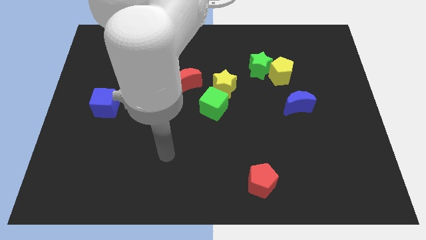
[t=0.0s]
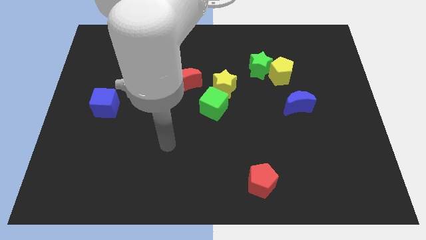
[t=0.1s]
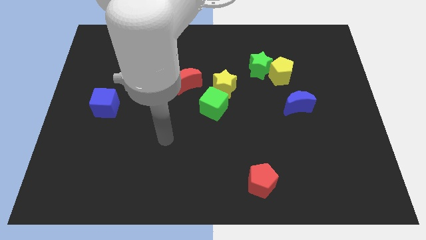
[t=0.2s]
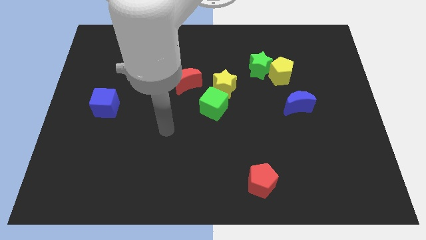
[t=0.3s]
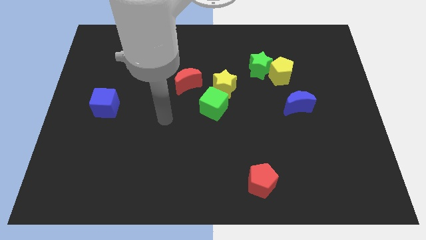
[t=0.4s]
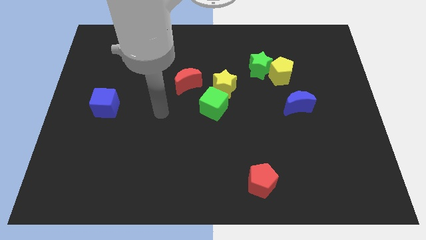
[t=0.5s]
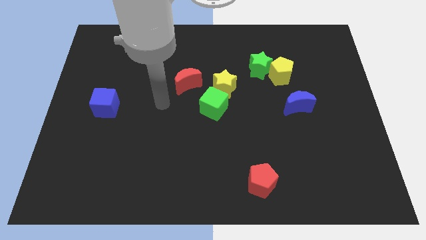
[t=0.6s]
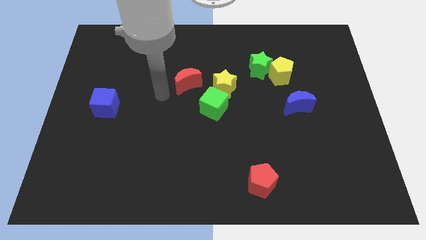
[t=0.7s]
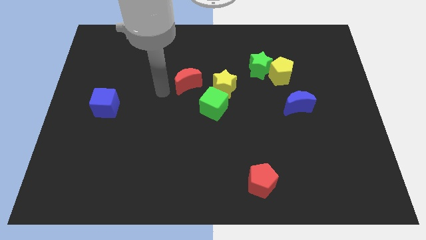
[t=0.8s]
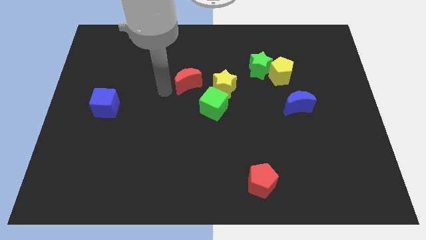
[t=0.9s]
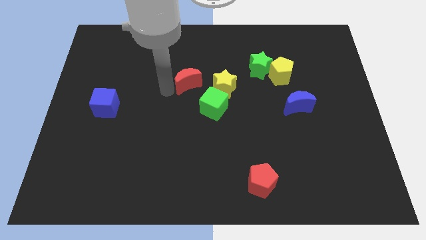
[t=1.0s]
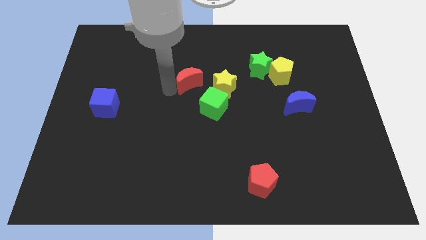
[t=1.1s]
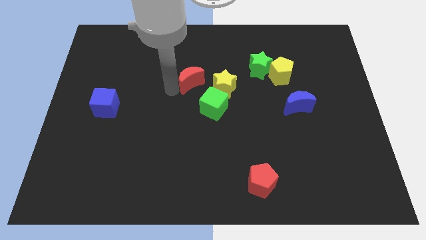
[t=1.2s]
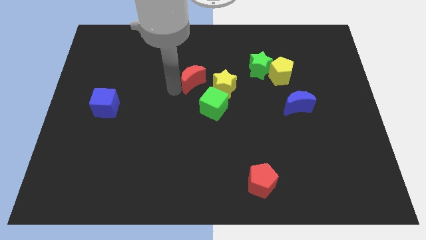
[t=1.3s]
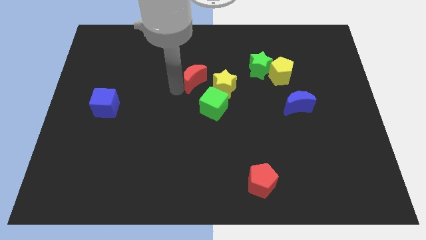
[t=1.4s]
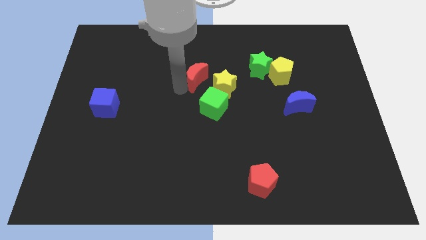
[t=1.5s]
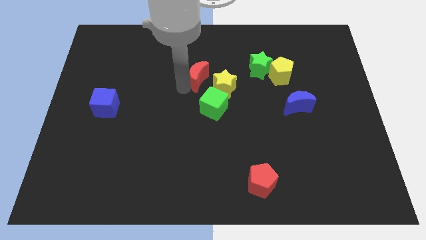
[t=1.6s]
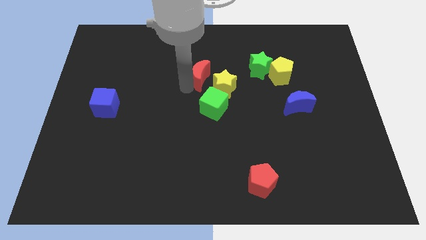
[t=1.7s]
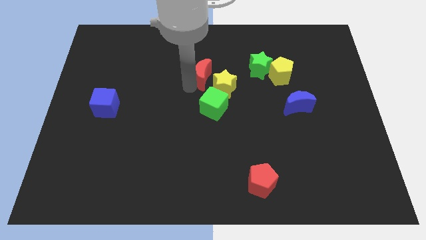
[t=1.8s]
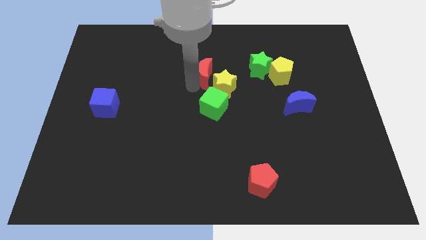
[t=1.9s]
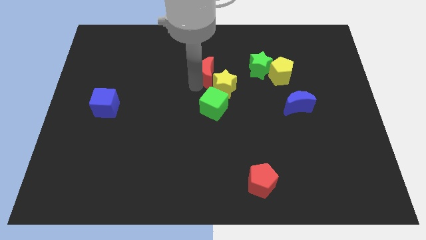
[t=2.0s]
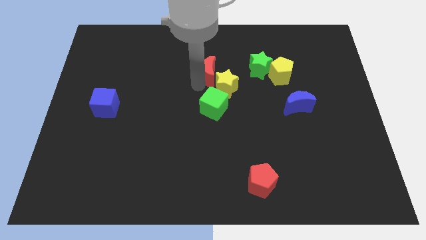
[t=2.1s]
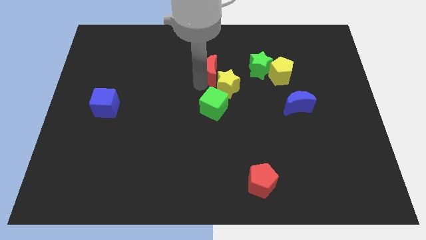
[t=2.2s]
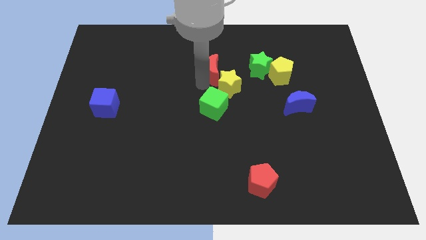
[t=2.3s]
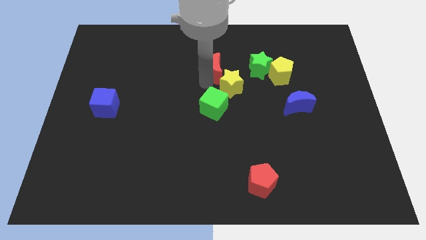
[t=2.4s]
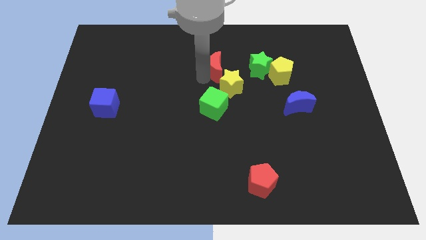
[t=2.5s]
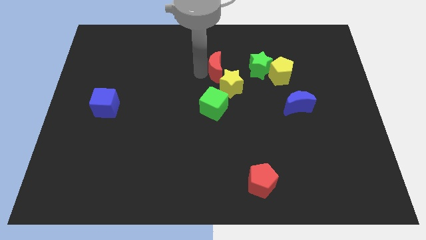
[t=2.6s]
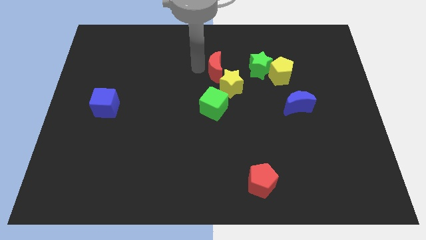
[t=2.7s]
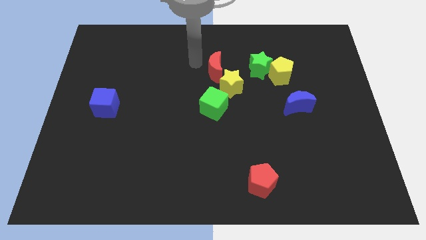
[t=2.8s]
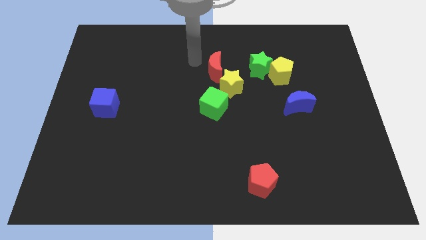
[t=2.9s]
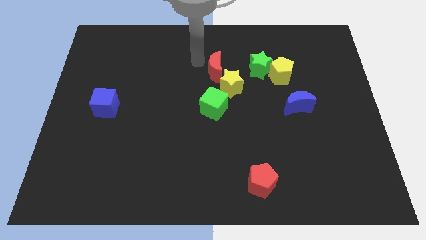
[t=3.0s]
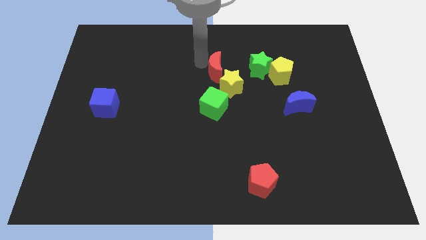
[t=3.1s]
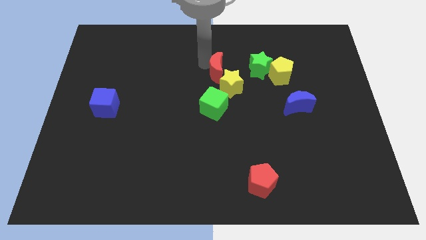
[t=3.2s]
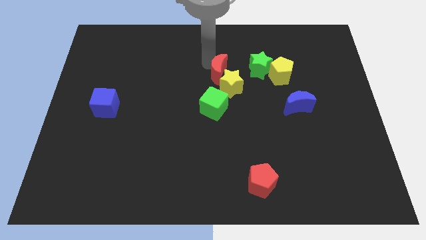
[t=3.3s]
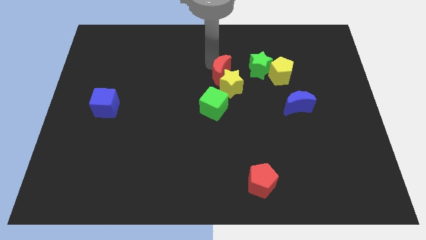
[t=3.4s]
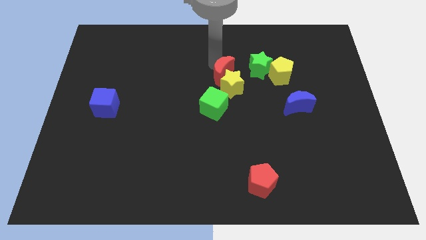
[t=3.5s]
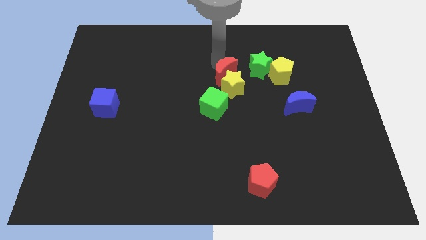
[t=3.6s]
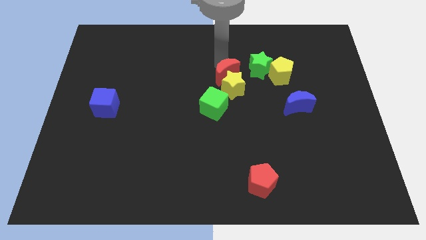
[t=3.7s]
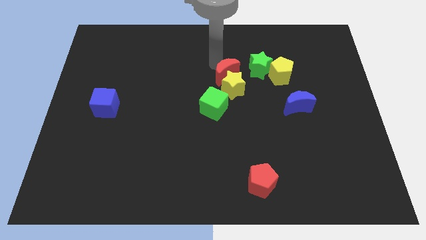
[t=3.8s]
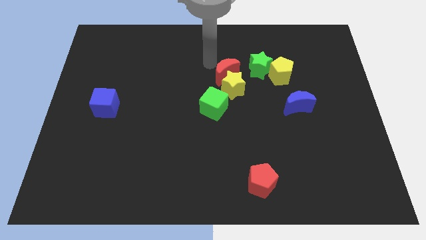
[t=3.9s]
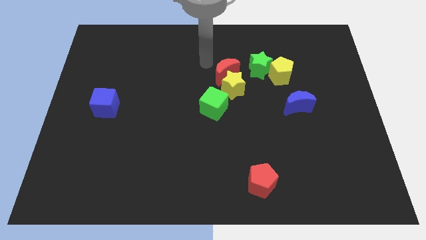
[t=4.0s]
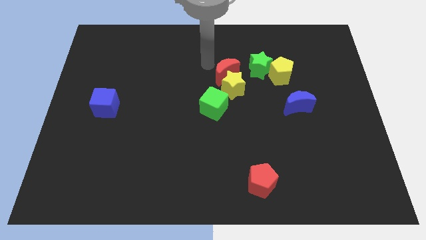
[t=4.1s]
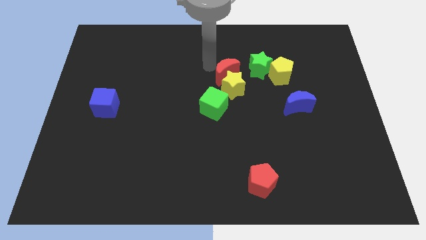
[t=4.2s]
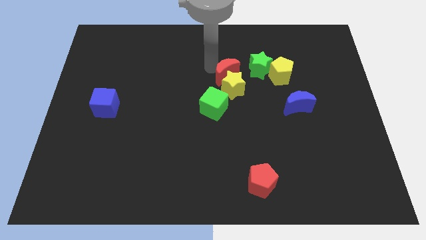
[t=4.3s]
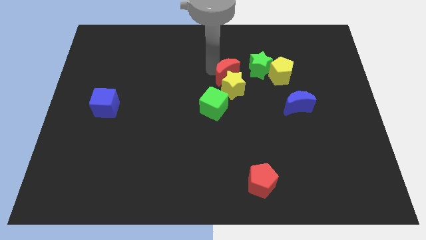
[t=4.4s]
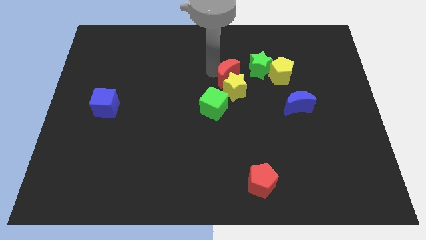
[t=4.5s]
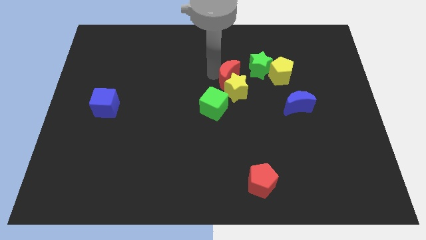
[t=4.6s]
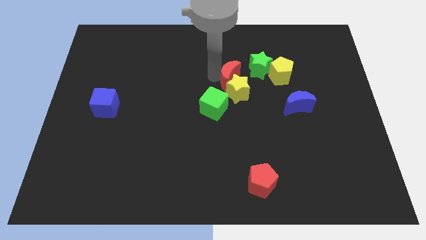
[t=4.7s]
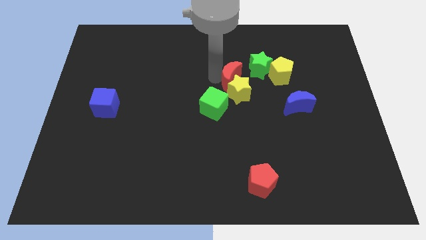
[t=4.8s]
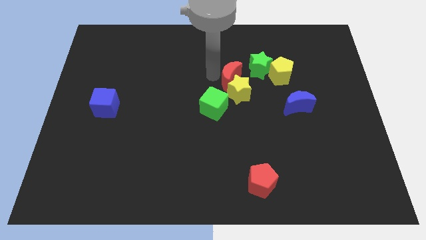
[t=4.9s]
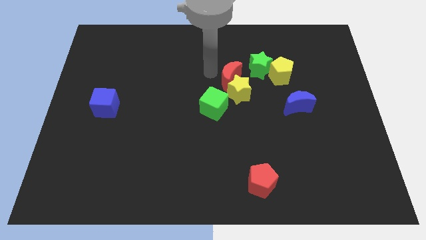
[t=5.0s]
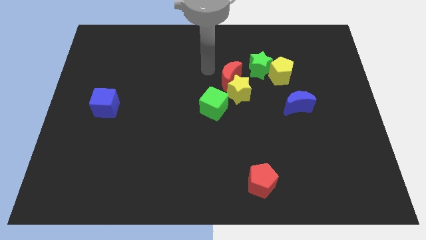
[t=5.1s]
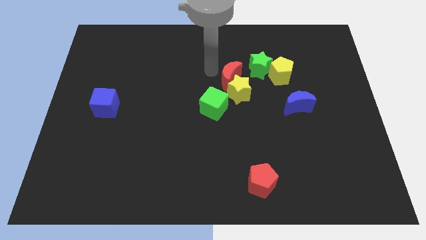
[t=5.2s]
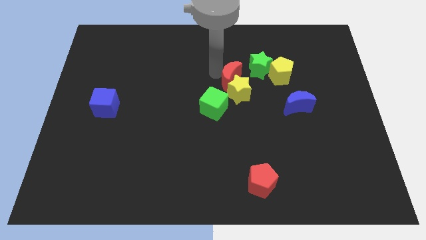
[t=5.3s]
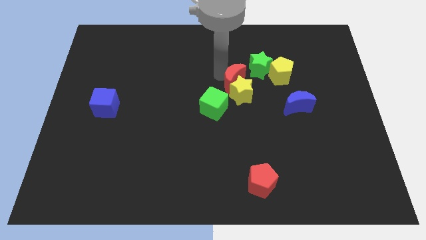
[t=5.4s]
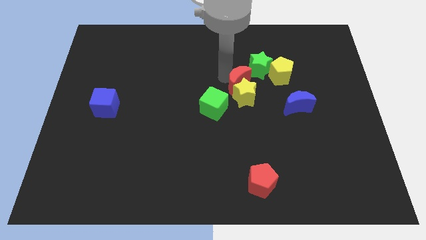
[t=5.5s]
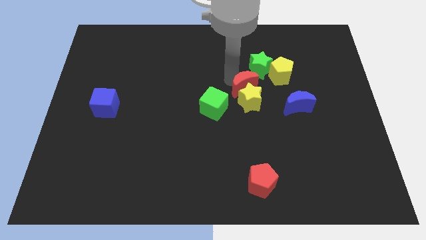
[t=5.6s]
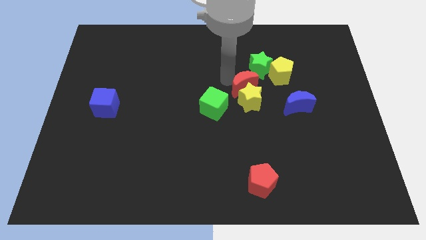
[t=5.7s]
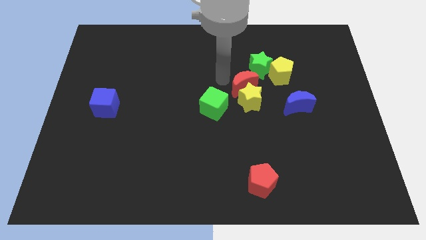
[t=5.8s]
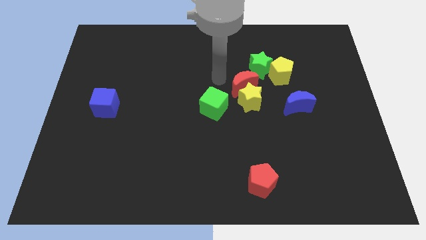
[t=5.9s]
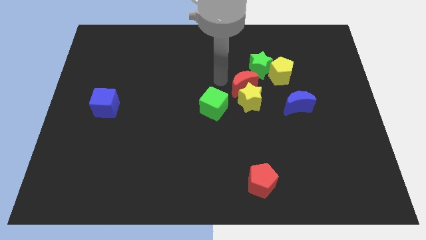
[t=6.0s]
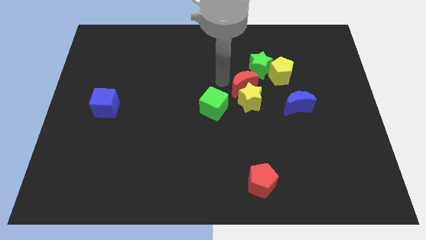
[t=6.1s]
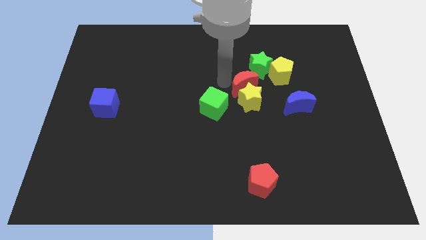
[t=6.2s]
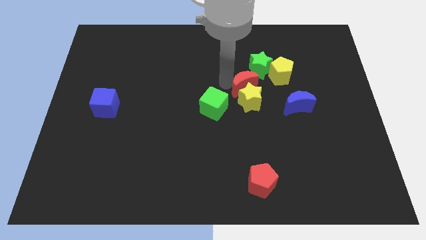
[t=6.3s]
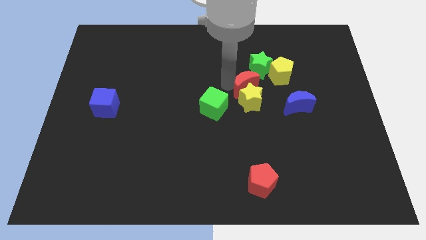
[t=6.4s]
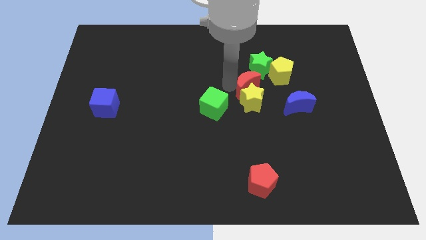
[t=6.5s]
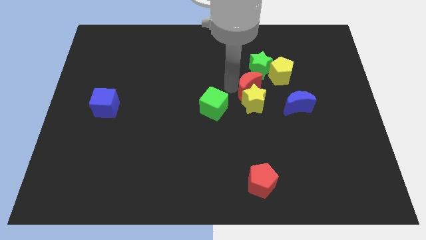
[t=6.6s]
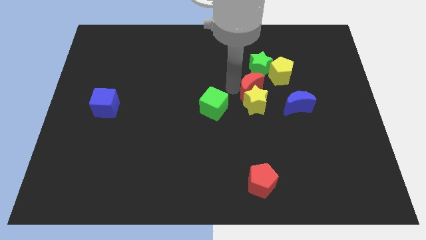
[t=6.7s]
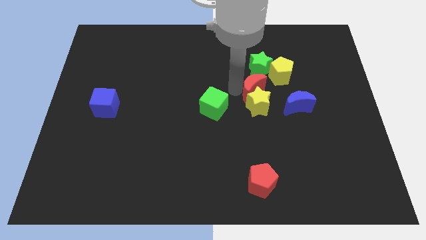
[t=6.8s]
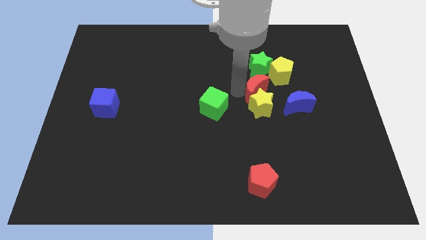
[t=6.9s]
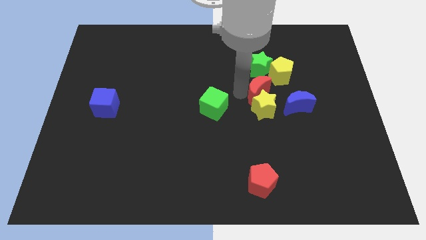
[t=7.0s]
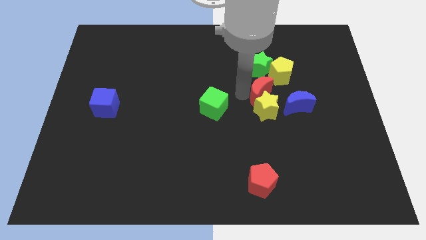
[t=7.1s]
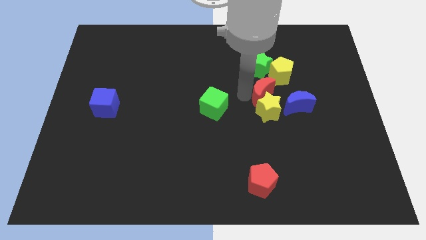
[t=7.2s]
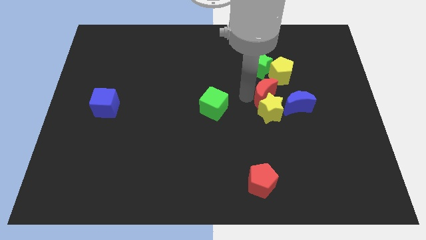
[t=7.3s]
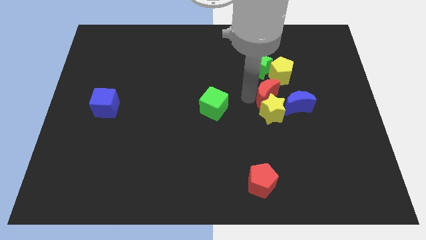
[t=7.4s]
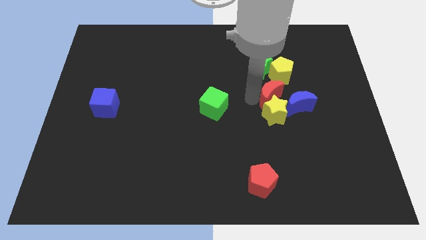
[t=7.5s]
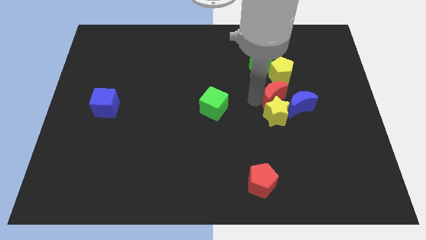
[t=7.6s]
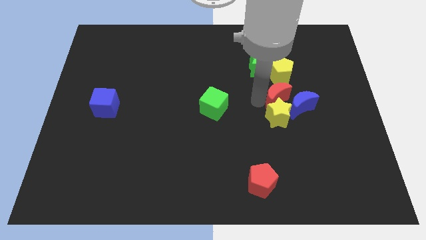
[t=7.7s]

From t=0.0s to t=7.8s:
put the red moon close to the blue moon

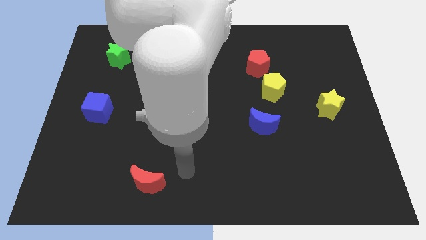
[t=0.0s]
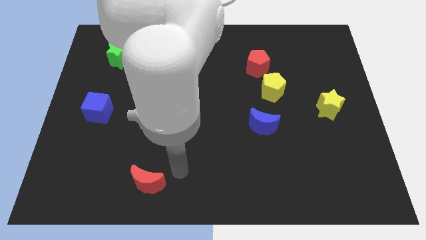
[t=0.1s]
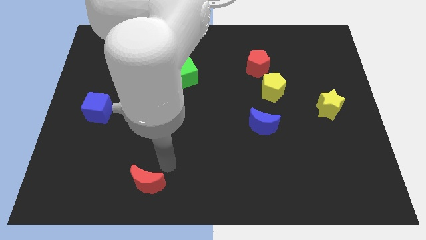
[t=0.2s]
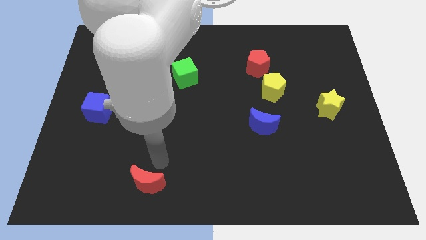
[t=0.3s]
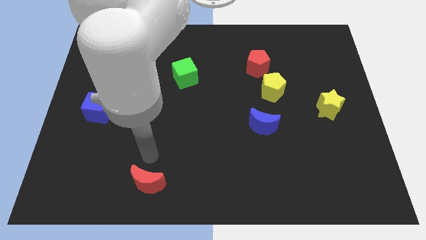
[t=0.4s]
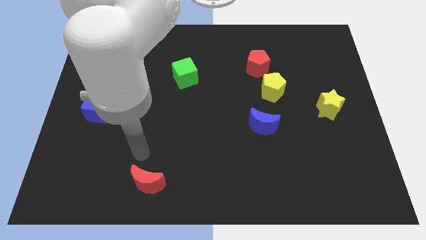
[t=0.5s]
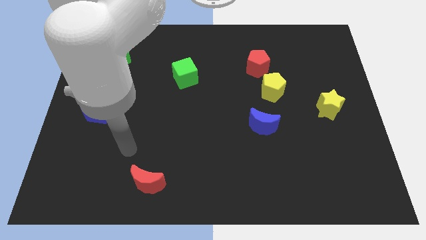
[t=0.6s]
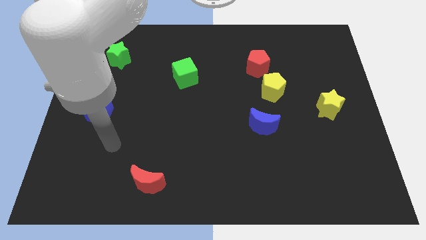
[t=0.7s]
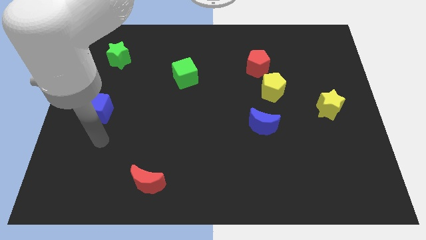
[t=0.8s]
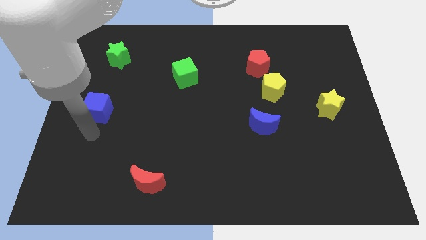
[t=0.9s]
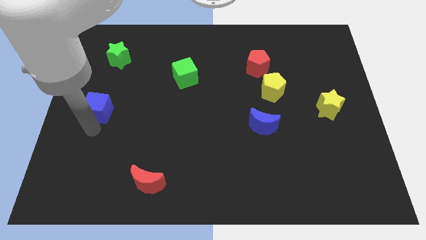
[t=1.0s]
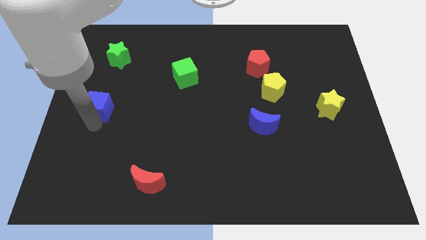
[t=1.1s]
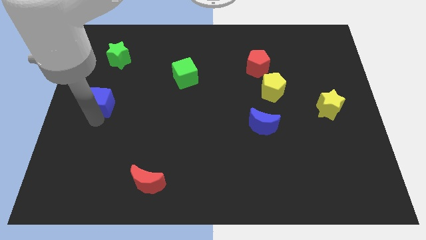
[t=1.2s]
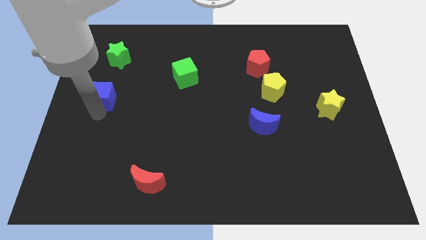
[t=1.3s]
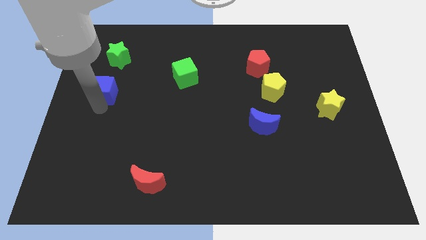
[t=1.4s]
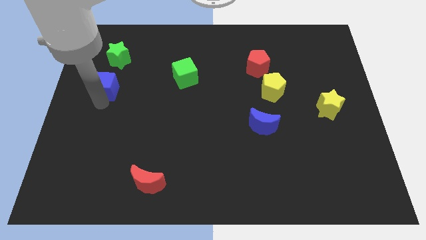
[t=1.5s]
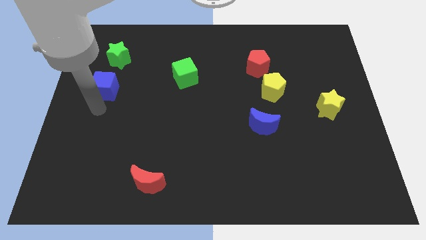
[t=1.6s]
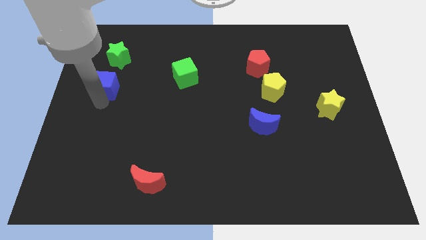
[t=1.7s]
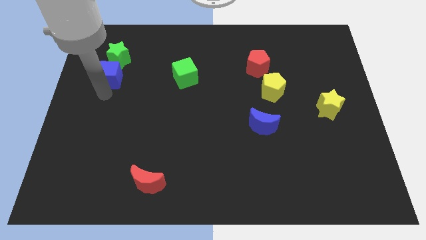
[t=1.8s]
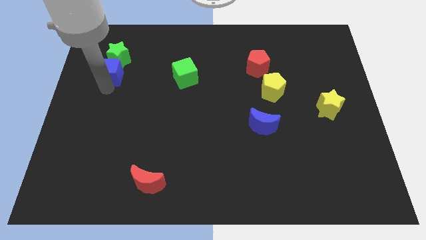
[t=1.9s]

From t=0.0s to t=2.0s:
move the blue cube close to the green star
